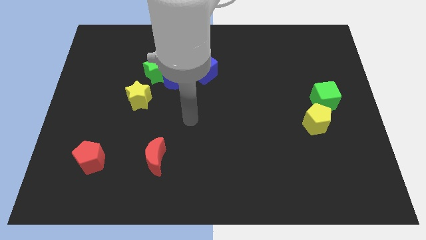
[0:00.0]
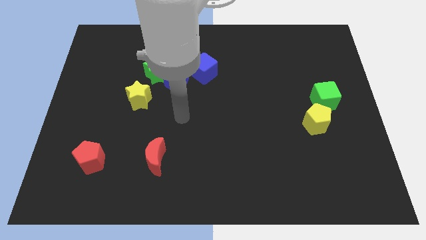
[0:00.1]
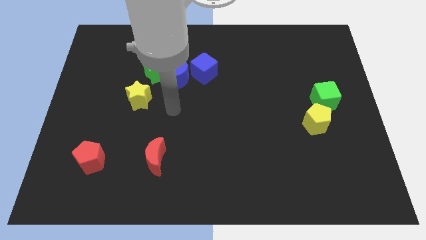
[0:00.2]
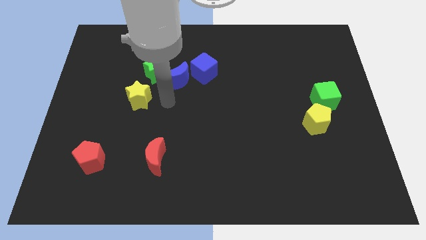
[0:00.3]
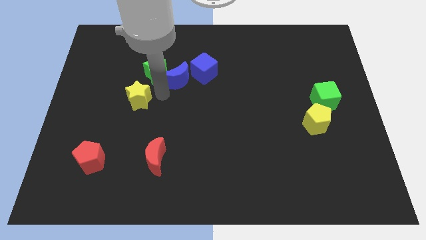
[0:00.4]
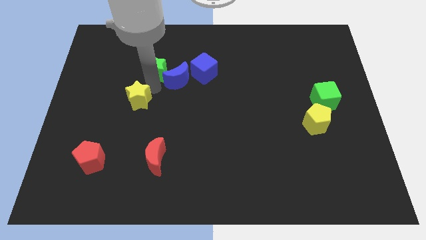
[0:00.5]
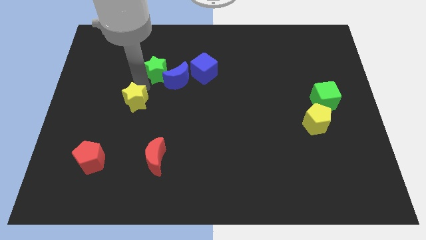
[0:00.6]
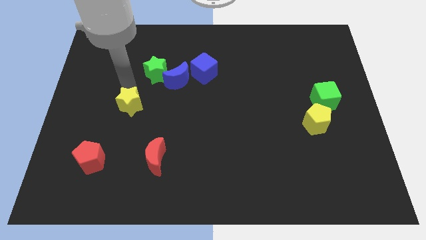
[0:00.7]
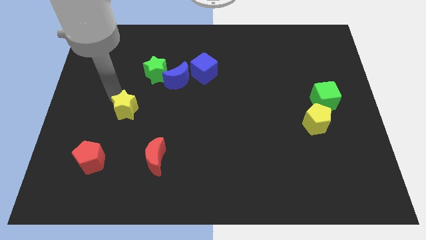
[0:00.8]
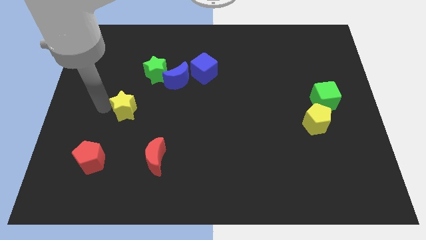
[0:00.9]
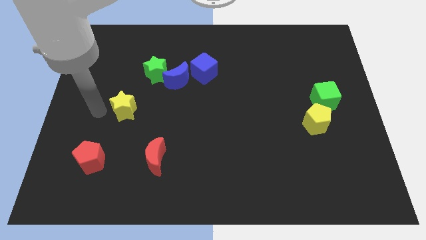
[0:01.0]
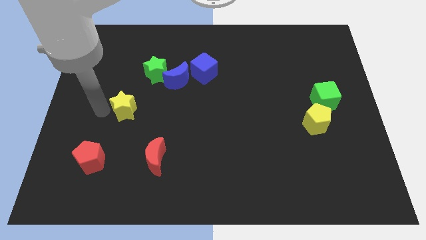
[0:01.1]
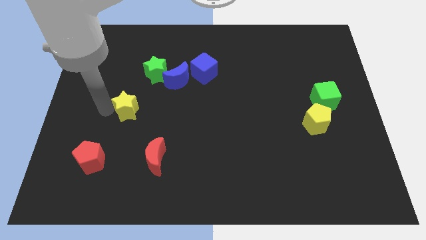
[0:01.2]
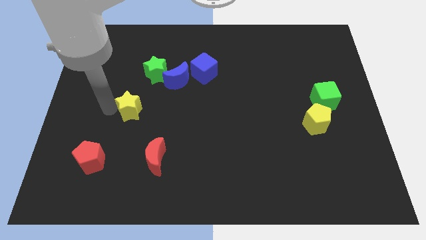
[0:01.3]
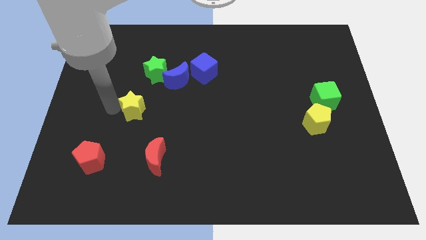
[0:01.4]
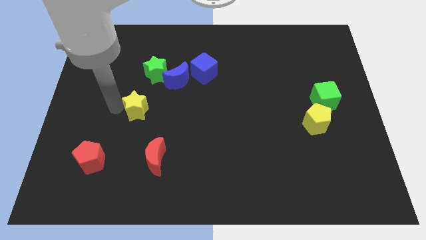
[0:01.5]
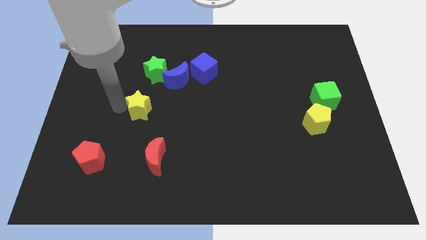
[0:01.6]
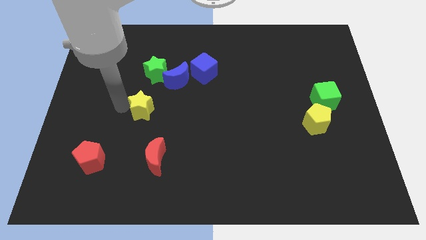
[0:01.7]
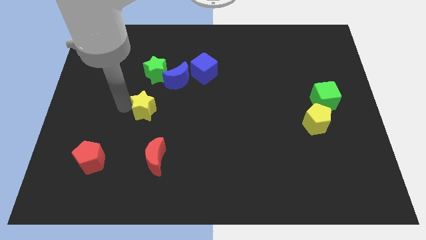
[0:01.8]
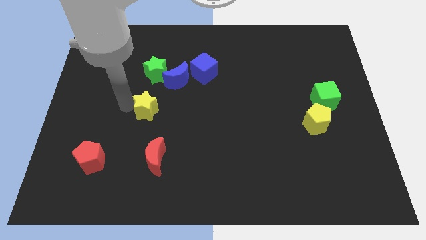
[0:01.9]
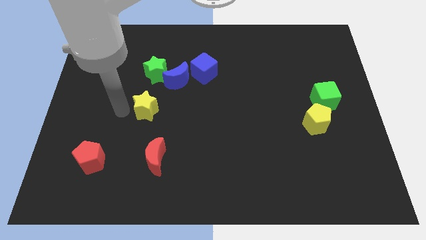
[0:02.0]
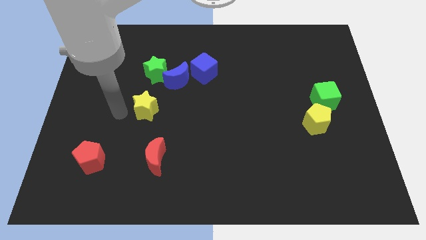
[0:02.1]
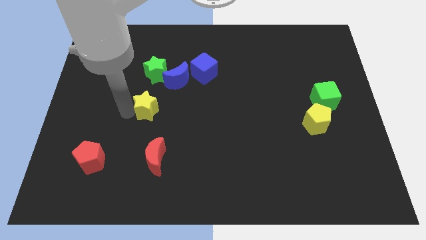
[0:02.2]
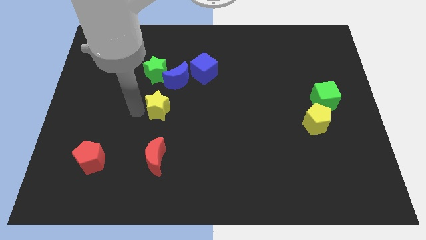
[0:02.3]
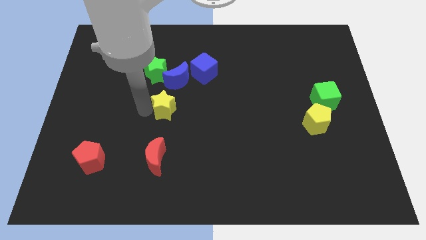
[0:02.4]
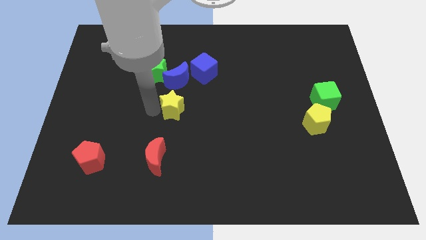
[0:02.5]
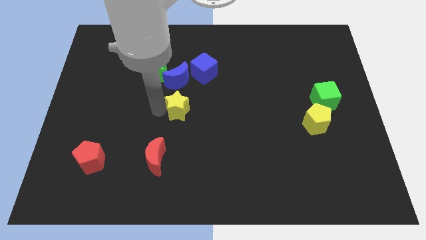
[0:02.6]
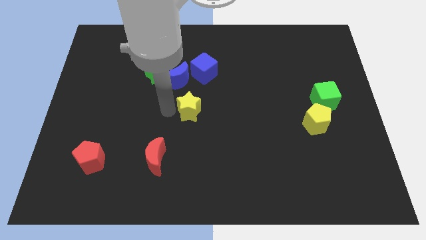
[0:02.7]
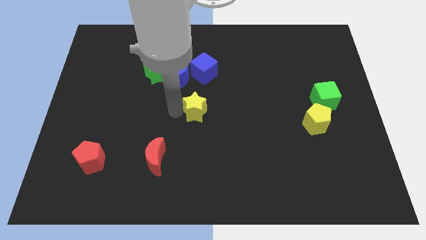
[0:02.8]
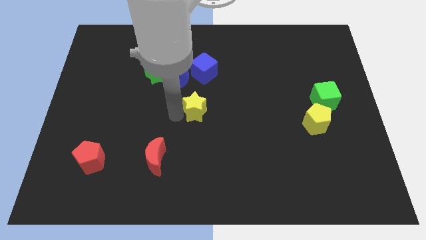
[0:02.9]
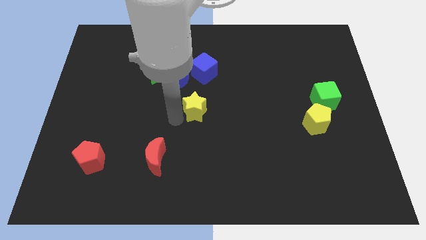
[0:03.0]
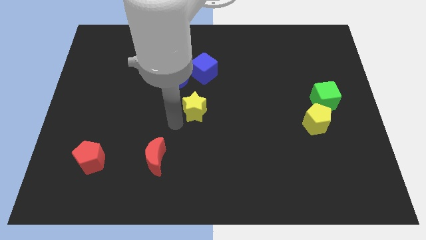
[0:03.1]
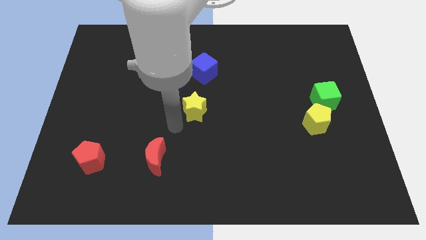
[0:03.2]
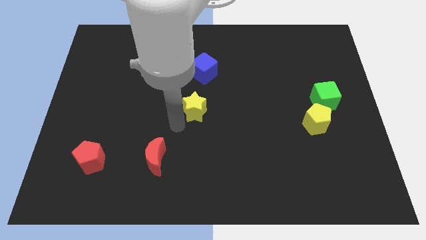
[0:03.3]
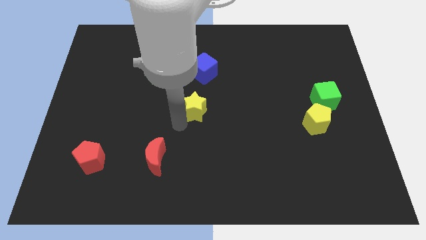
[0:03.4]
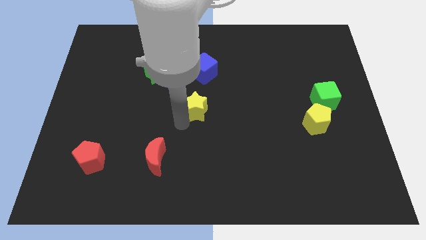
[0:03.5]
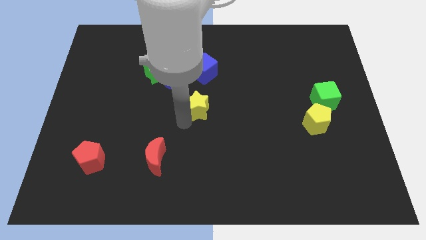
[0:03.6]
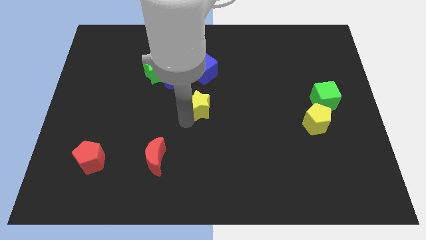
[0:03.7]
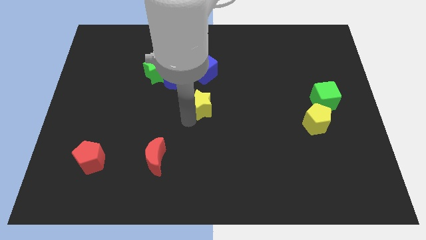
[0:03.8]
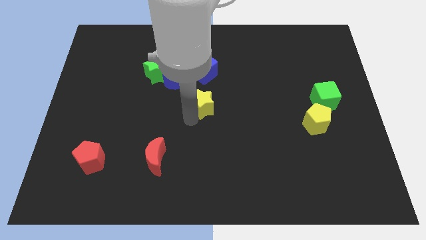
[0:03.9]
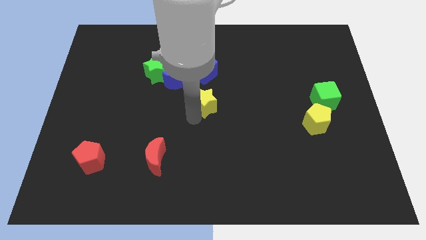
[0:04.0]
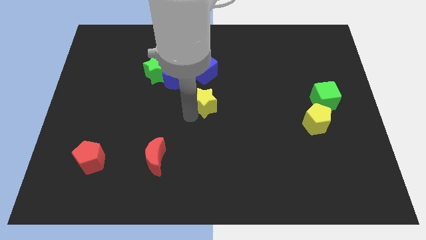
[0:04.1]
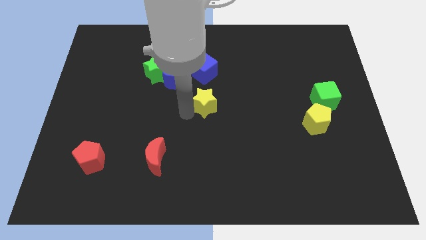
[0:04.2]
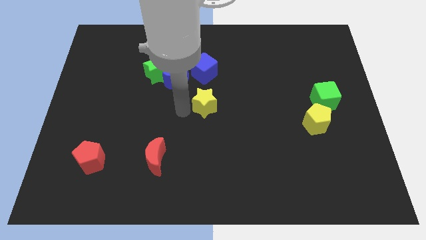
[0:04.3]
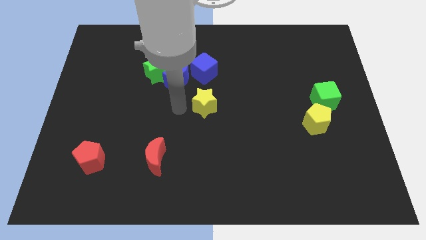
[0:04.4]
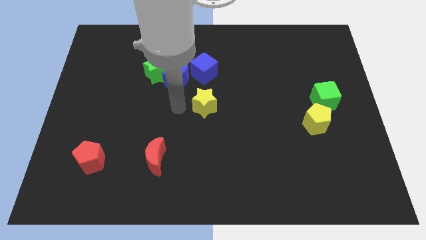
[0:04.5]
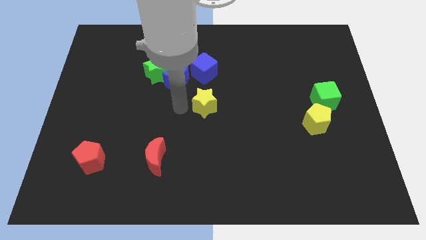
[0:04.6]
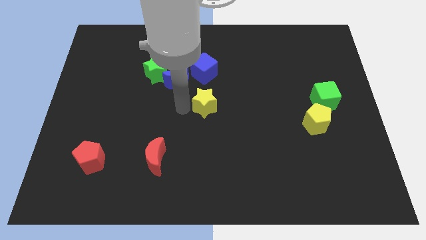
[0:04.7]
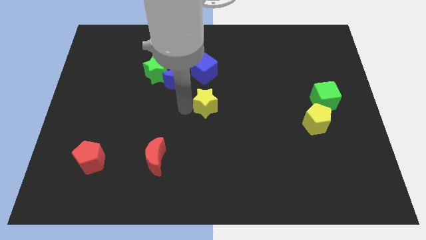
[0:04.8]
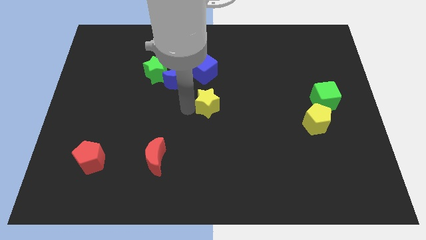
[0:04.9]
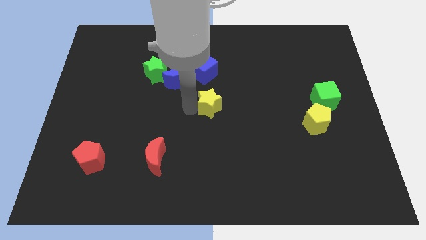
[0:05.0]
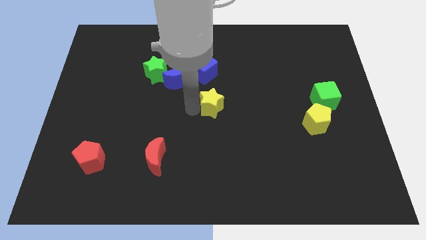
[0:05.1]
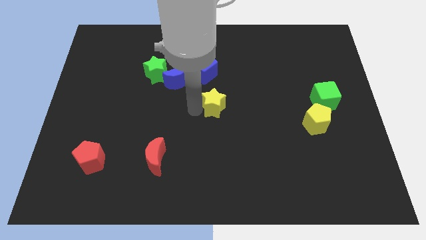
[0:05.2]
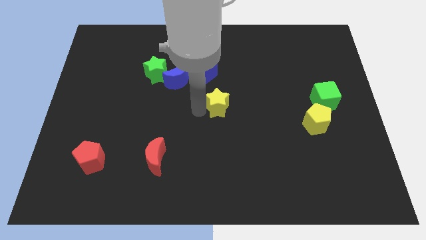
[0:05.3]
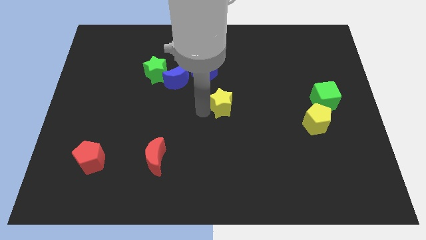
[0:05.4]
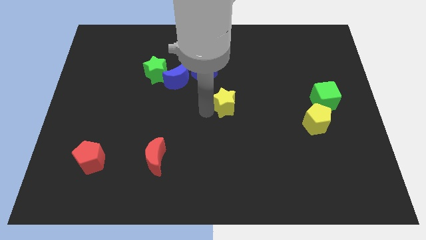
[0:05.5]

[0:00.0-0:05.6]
push the yellow star right

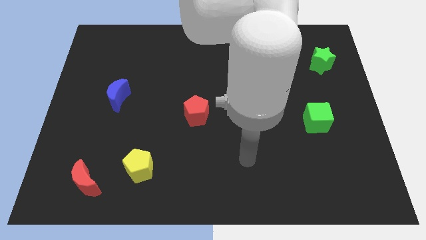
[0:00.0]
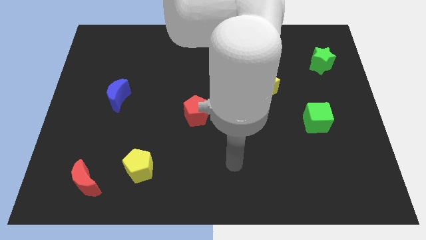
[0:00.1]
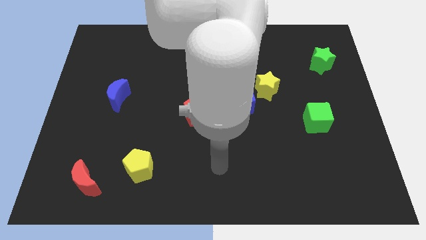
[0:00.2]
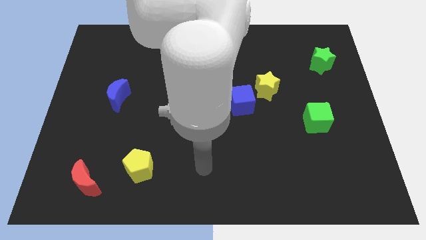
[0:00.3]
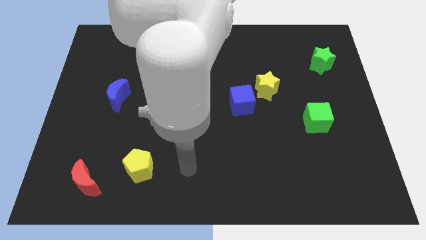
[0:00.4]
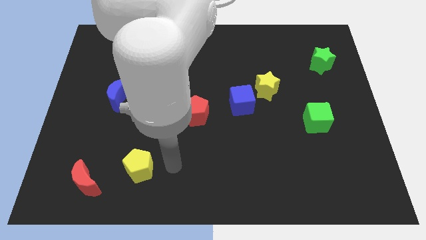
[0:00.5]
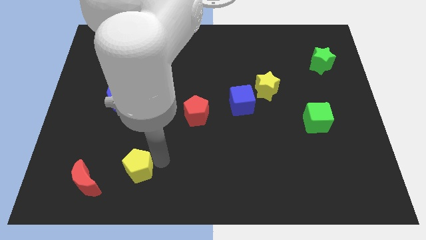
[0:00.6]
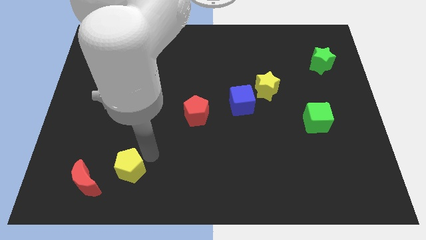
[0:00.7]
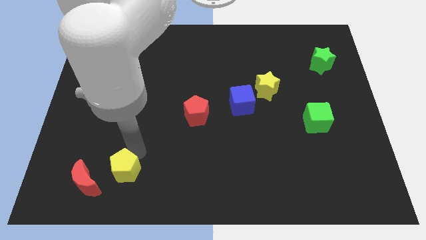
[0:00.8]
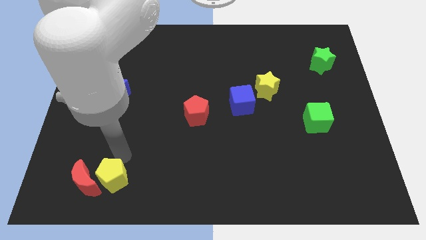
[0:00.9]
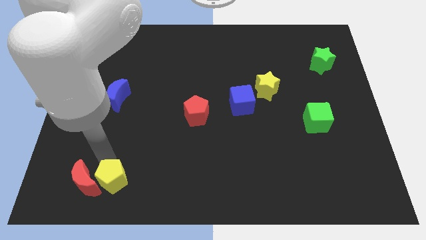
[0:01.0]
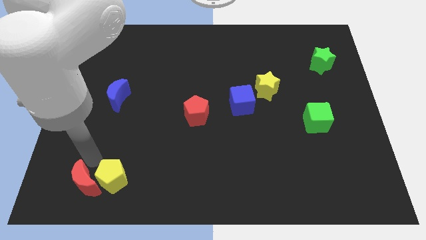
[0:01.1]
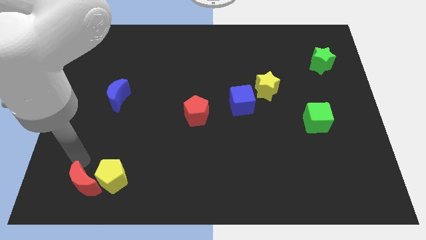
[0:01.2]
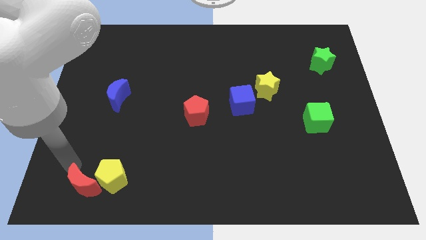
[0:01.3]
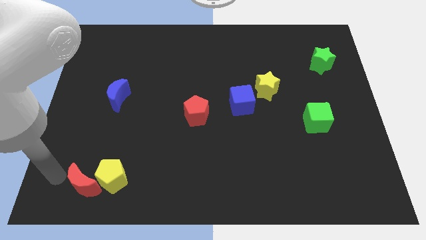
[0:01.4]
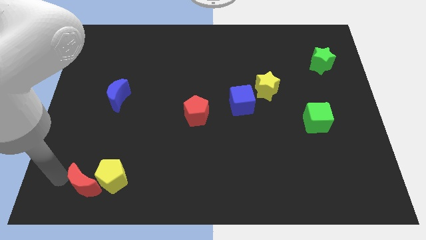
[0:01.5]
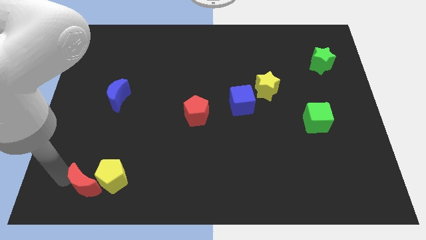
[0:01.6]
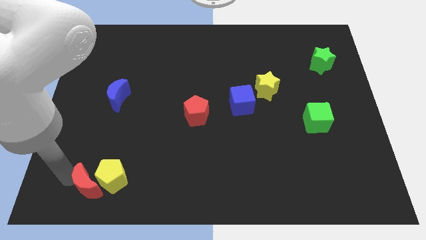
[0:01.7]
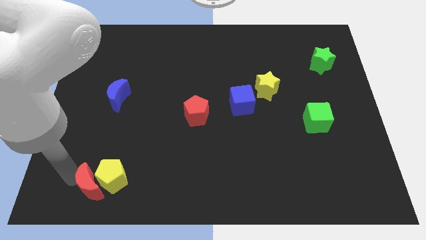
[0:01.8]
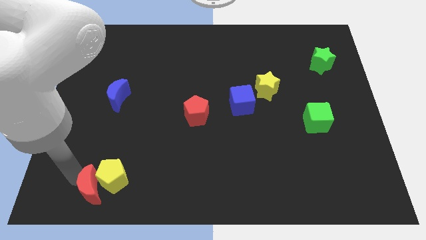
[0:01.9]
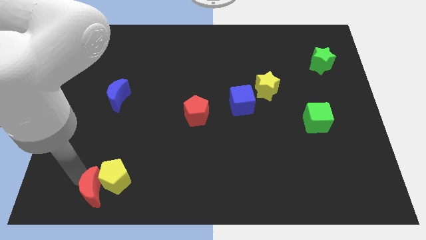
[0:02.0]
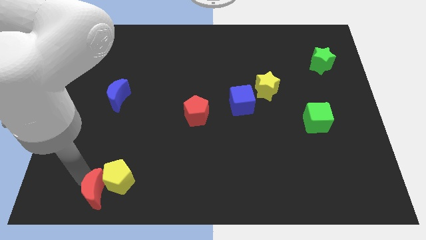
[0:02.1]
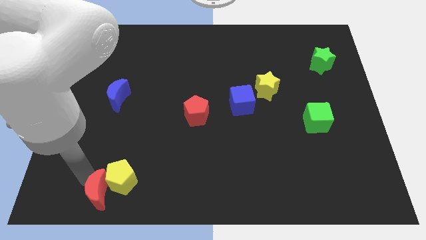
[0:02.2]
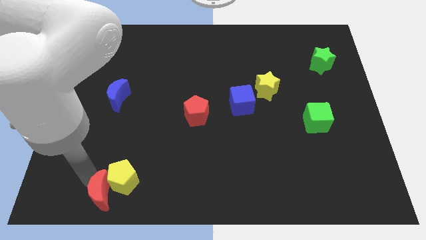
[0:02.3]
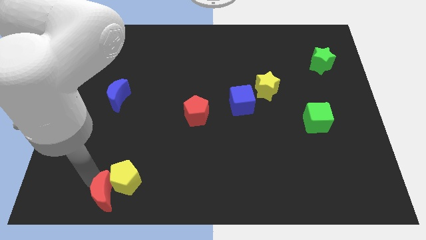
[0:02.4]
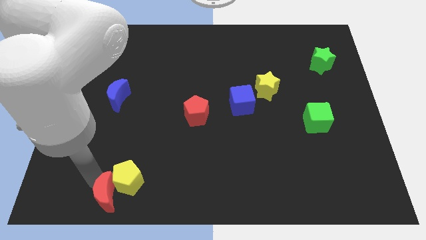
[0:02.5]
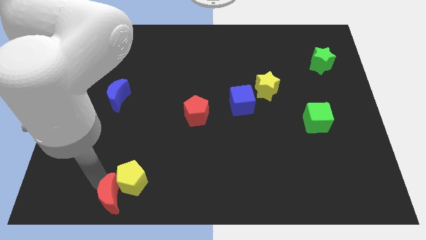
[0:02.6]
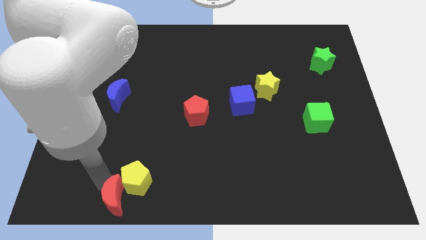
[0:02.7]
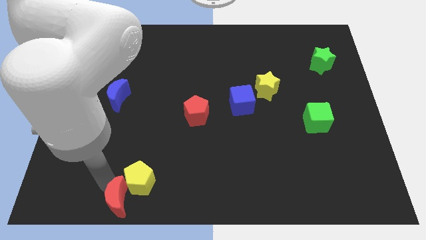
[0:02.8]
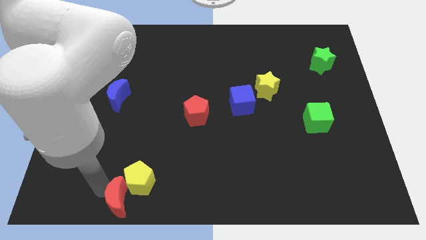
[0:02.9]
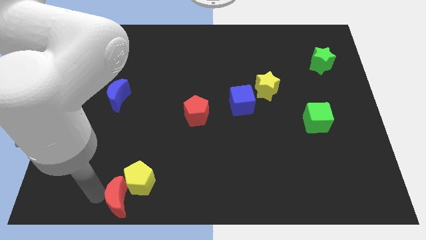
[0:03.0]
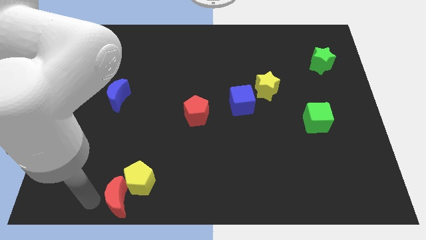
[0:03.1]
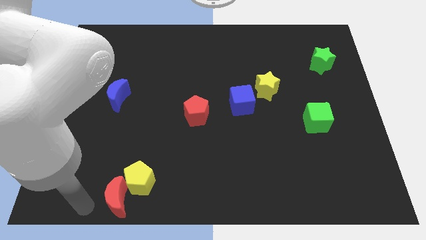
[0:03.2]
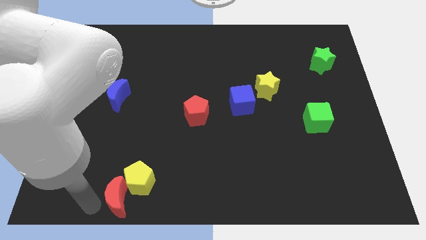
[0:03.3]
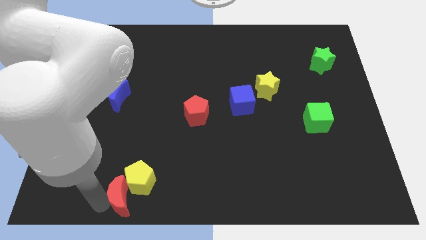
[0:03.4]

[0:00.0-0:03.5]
slightly slide the red moon right
